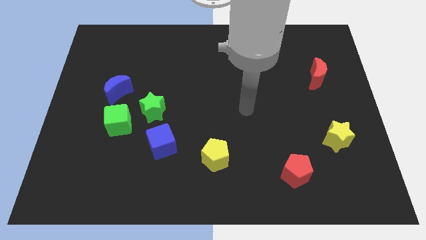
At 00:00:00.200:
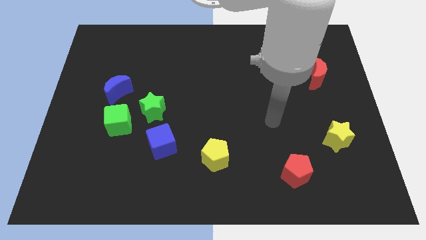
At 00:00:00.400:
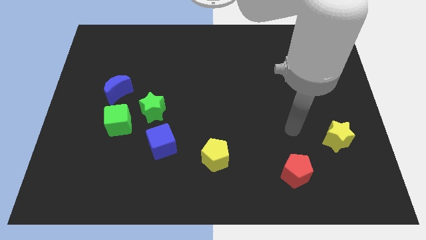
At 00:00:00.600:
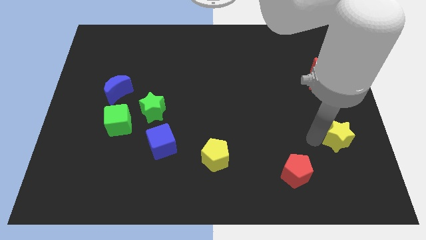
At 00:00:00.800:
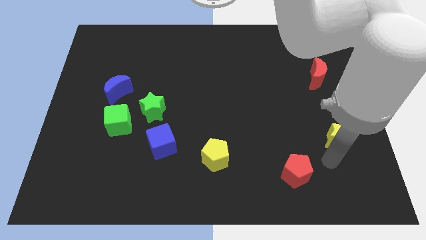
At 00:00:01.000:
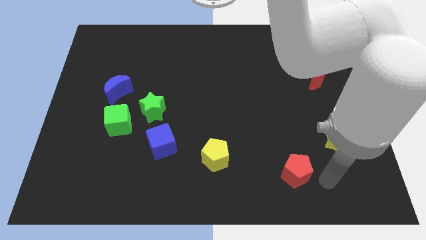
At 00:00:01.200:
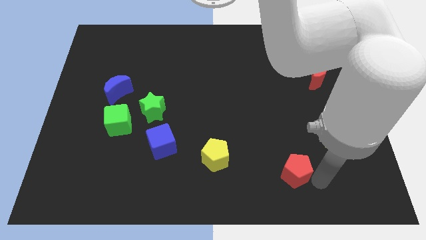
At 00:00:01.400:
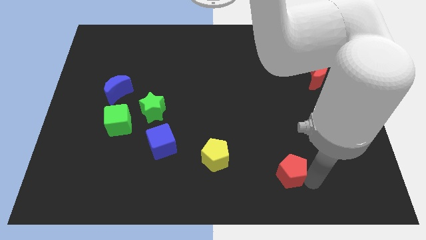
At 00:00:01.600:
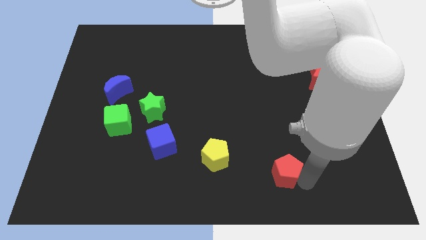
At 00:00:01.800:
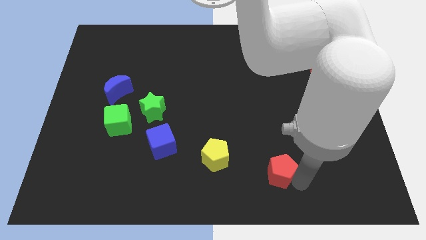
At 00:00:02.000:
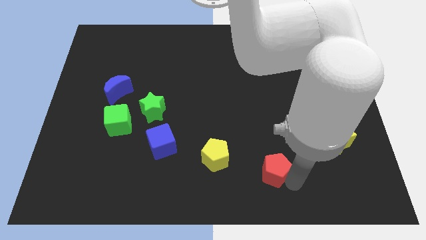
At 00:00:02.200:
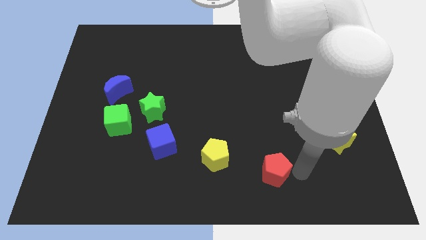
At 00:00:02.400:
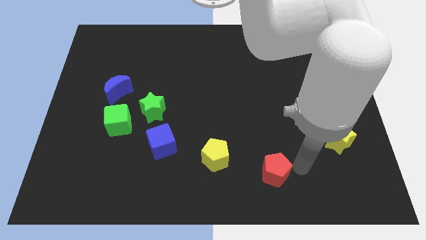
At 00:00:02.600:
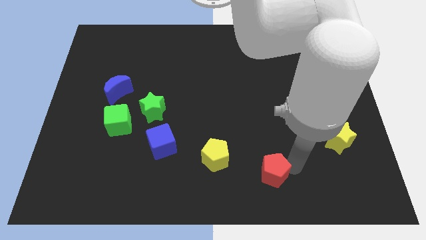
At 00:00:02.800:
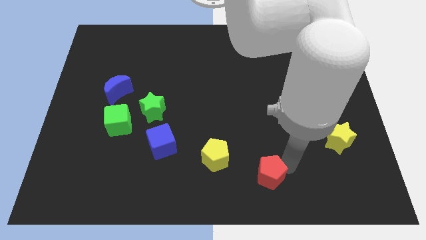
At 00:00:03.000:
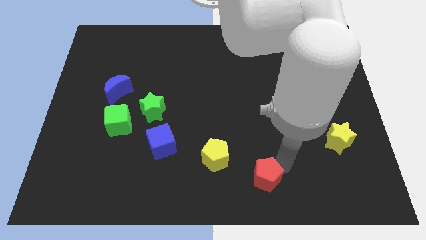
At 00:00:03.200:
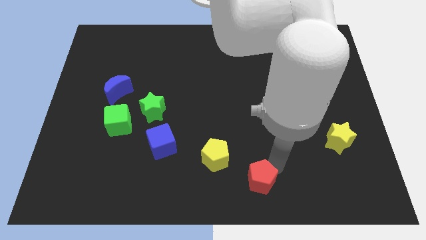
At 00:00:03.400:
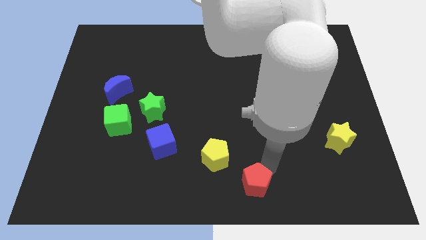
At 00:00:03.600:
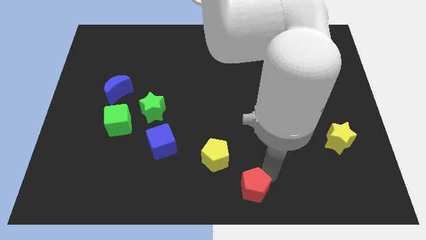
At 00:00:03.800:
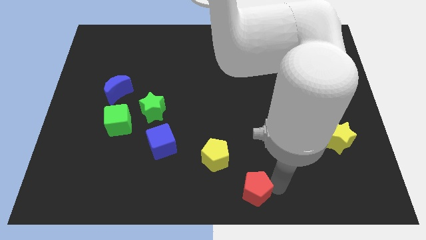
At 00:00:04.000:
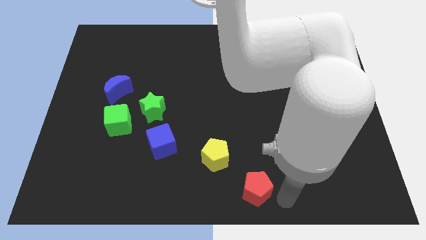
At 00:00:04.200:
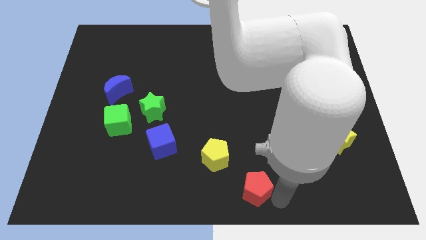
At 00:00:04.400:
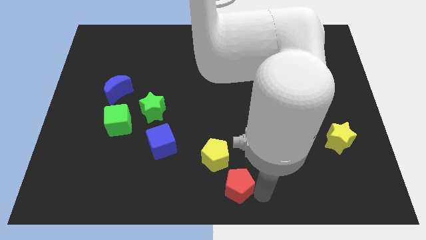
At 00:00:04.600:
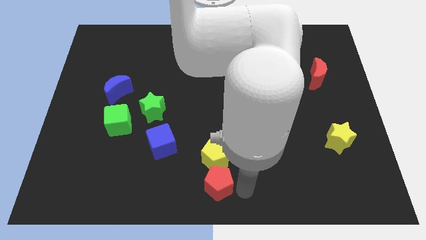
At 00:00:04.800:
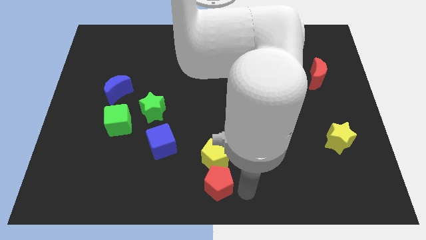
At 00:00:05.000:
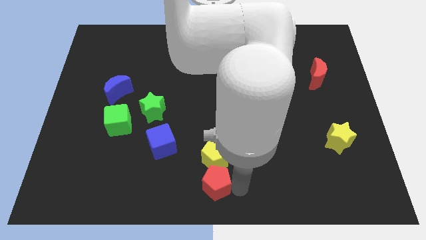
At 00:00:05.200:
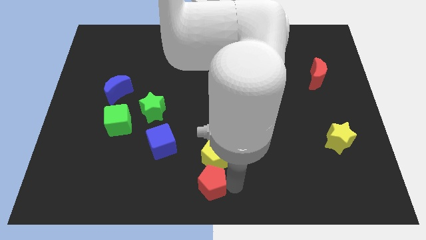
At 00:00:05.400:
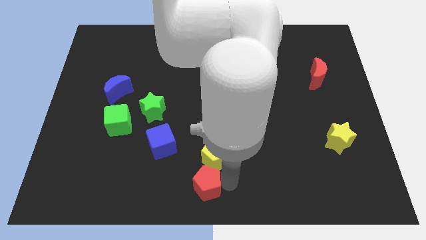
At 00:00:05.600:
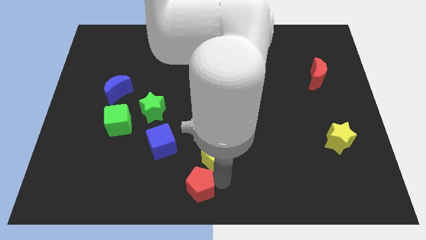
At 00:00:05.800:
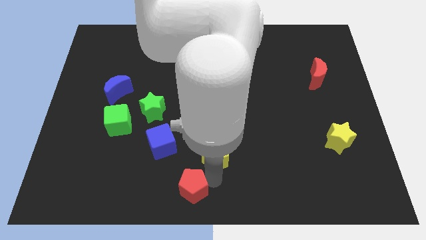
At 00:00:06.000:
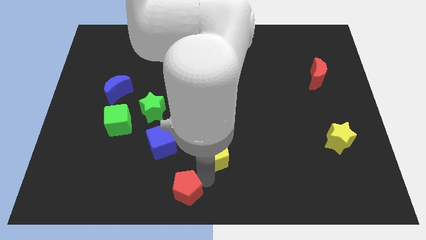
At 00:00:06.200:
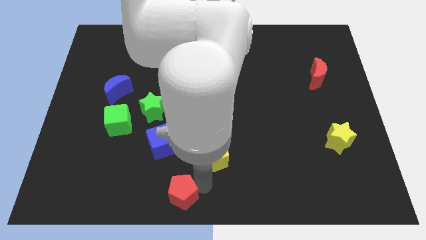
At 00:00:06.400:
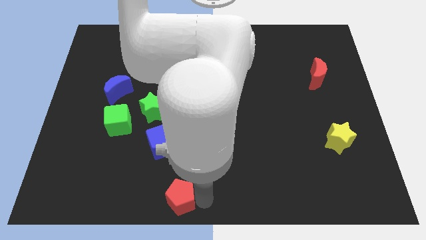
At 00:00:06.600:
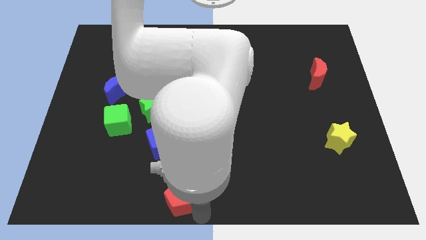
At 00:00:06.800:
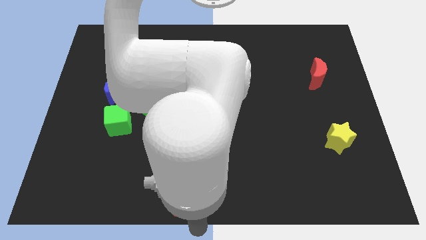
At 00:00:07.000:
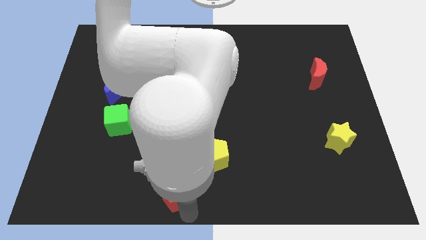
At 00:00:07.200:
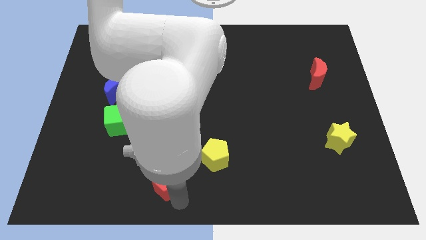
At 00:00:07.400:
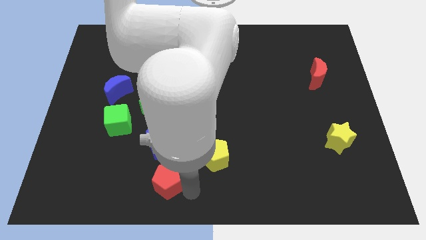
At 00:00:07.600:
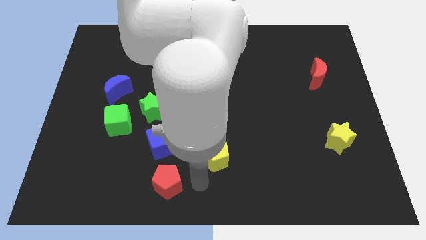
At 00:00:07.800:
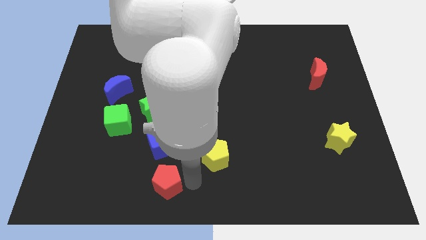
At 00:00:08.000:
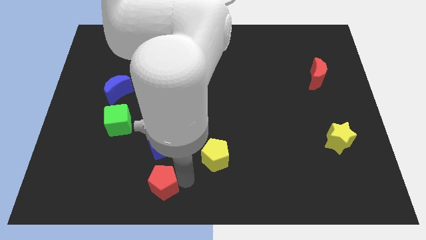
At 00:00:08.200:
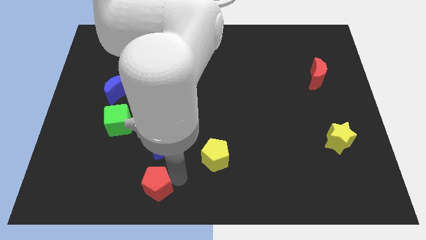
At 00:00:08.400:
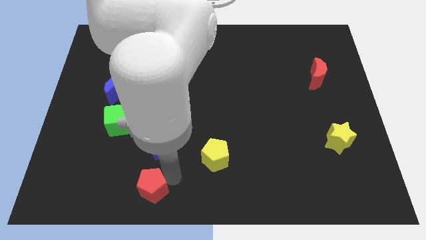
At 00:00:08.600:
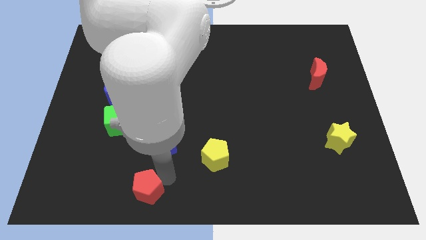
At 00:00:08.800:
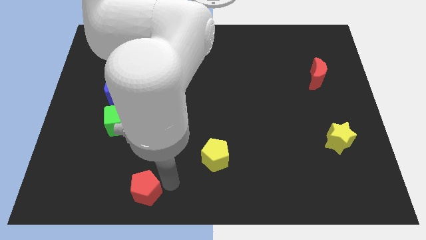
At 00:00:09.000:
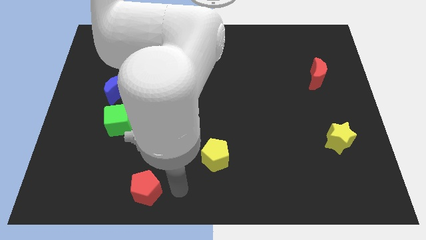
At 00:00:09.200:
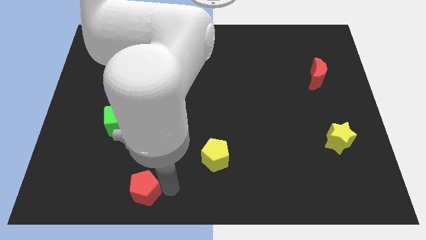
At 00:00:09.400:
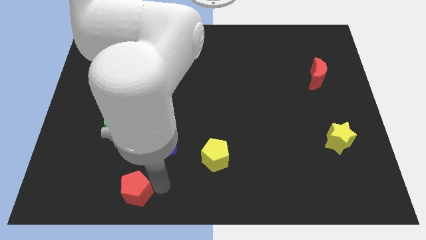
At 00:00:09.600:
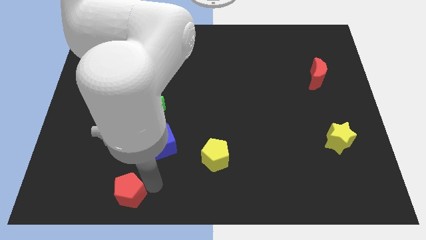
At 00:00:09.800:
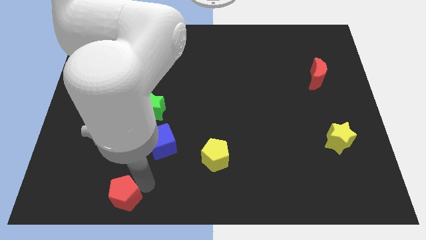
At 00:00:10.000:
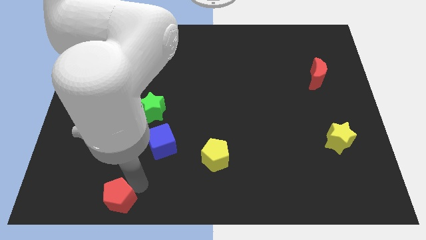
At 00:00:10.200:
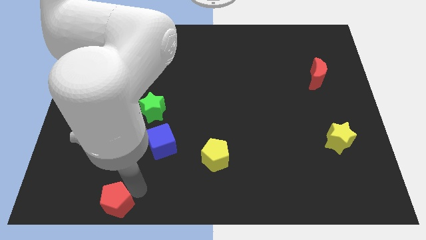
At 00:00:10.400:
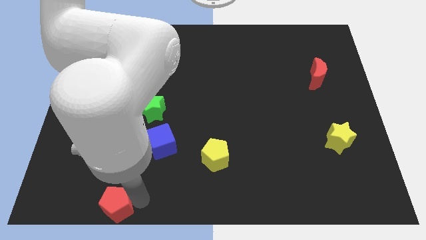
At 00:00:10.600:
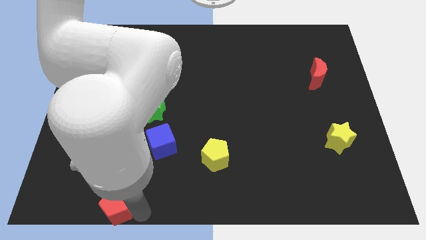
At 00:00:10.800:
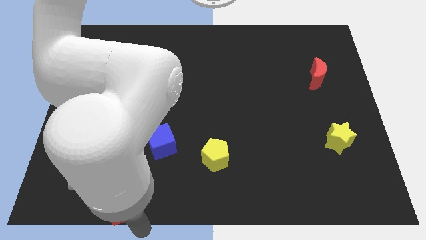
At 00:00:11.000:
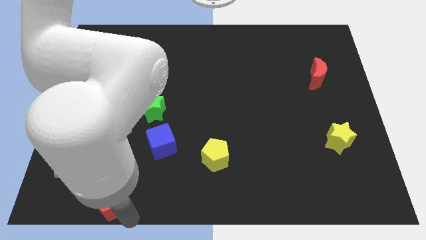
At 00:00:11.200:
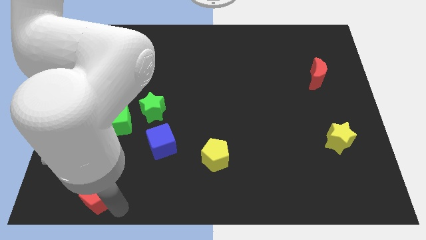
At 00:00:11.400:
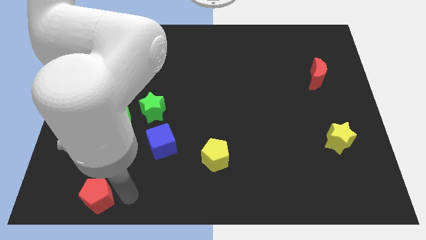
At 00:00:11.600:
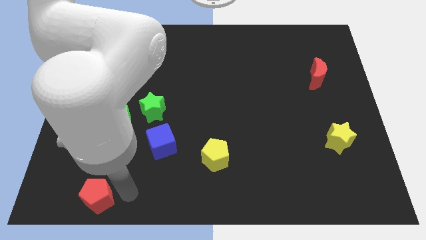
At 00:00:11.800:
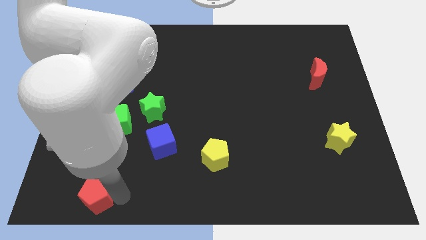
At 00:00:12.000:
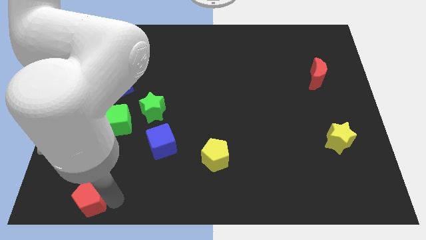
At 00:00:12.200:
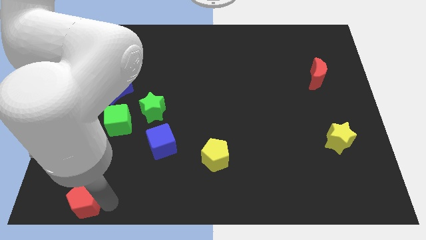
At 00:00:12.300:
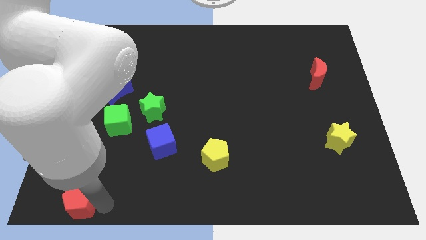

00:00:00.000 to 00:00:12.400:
put the red pentagon to the bottom left of the board
